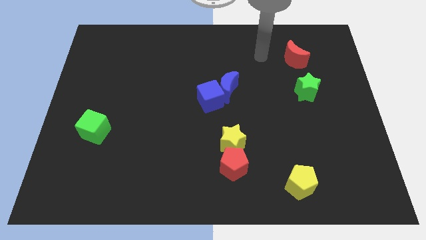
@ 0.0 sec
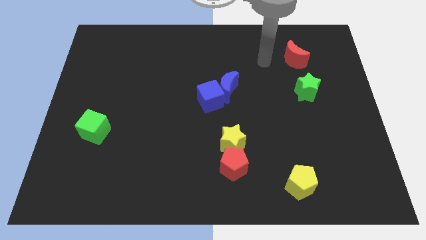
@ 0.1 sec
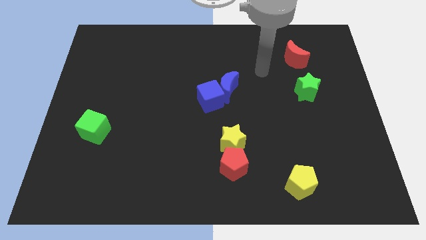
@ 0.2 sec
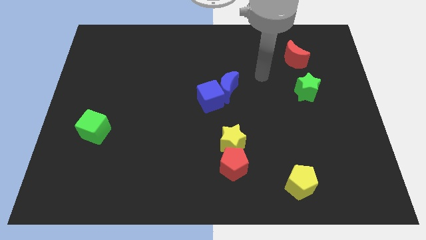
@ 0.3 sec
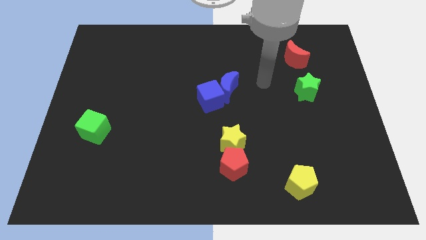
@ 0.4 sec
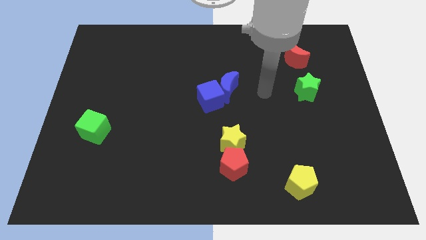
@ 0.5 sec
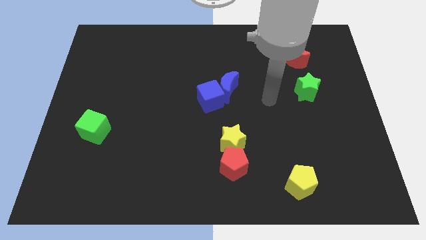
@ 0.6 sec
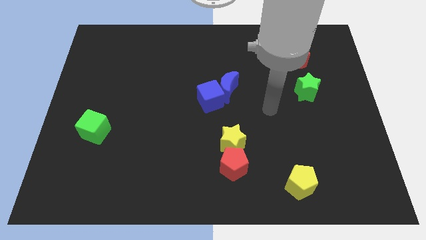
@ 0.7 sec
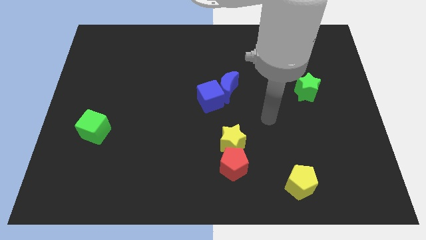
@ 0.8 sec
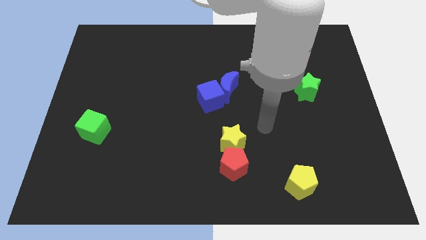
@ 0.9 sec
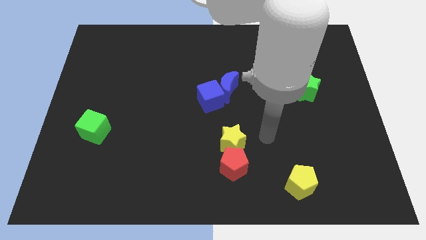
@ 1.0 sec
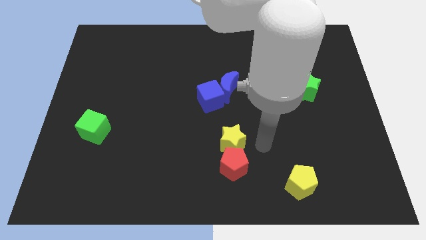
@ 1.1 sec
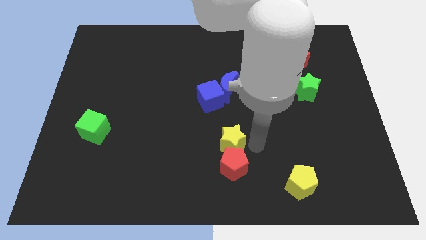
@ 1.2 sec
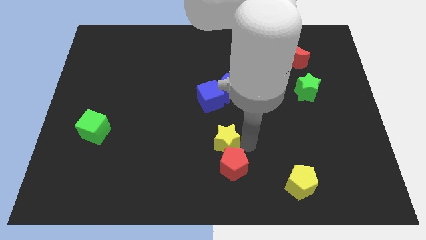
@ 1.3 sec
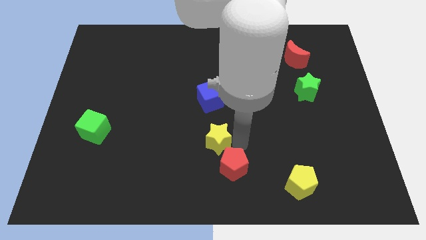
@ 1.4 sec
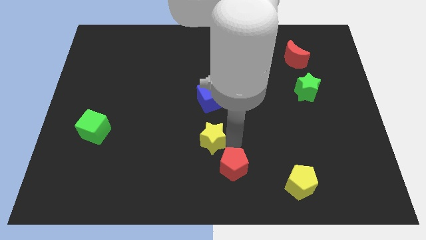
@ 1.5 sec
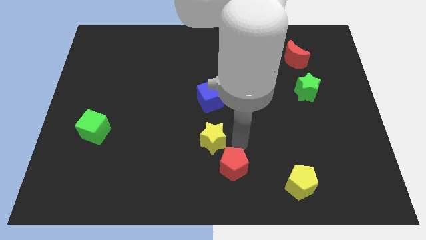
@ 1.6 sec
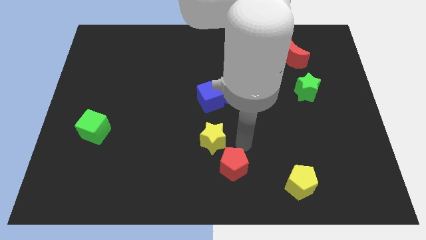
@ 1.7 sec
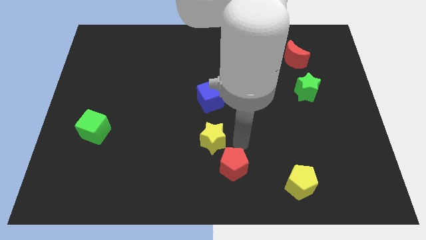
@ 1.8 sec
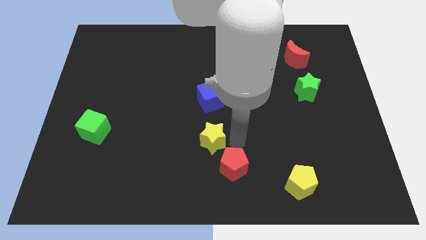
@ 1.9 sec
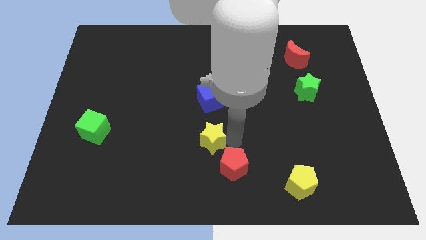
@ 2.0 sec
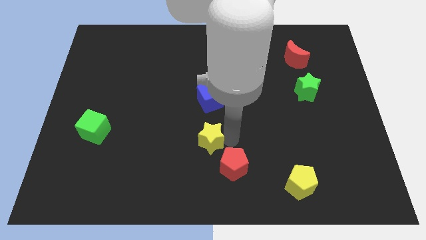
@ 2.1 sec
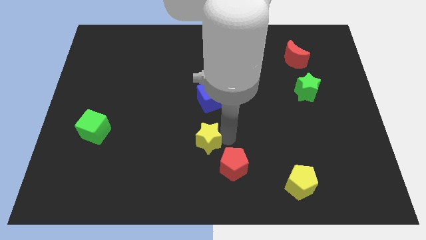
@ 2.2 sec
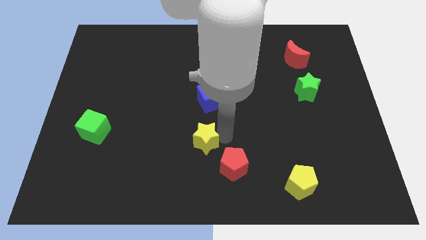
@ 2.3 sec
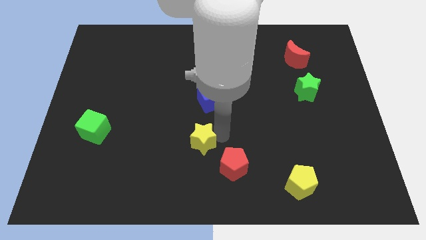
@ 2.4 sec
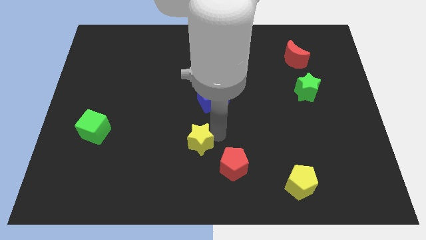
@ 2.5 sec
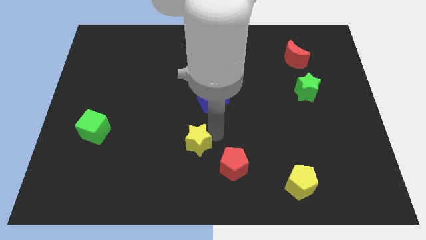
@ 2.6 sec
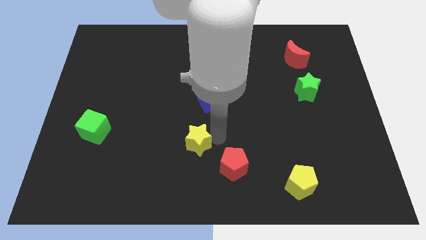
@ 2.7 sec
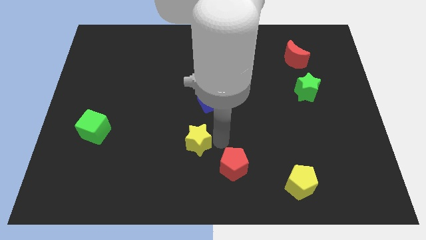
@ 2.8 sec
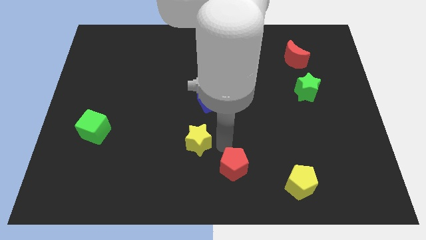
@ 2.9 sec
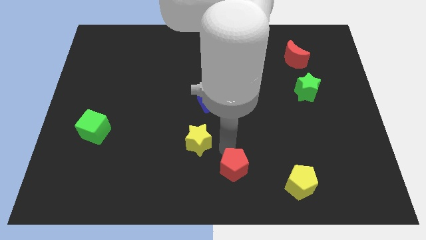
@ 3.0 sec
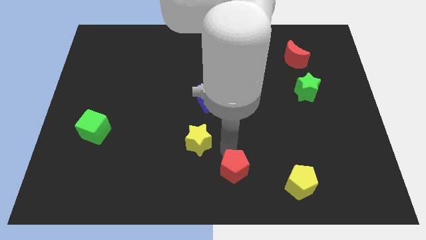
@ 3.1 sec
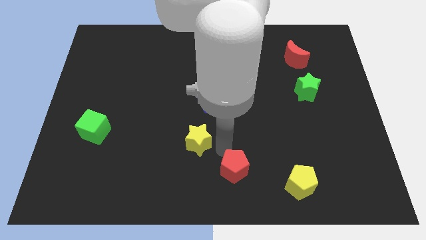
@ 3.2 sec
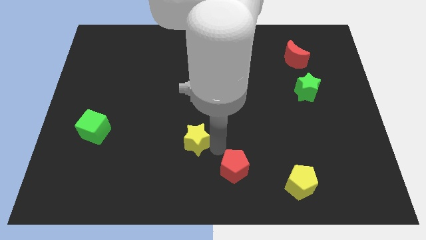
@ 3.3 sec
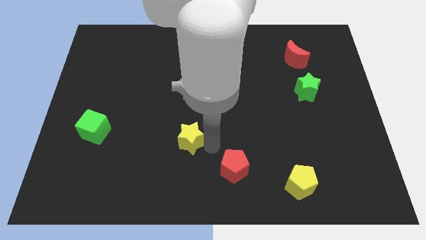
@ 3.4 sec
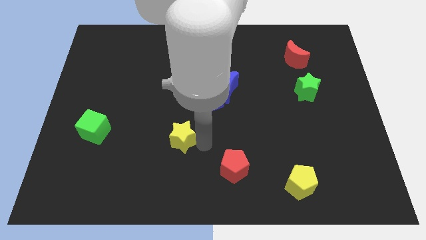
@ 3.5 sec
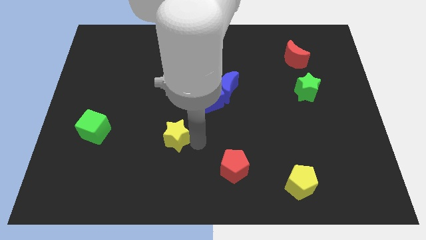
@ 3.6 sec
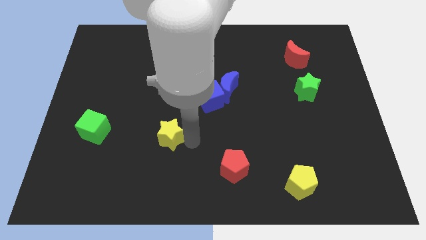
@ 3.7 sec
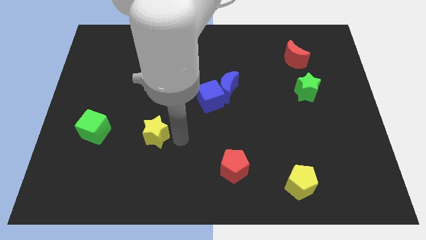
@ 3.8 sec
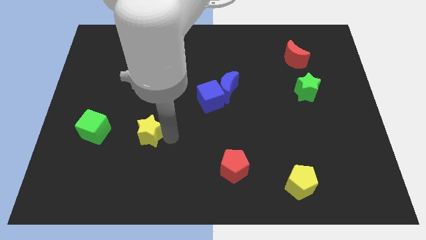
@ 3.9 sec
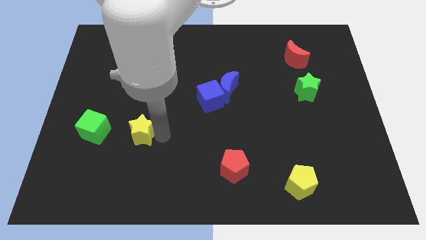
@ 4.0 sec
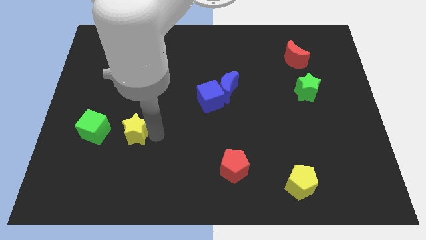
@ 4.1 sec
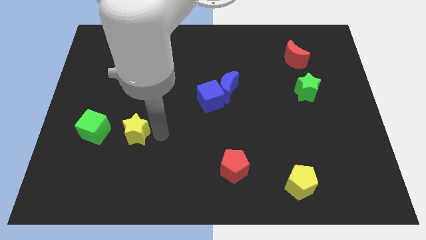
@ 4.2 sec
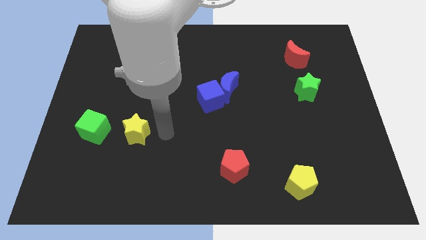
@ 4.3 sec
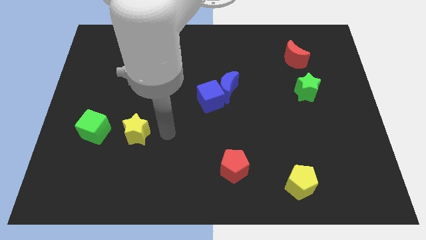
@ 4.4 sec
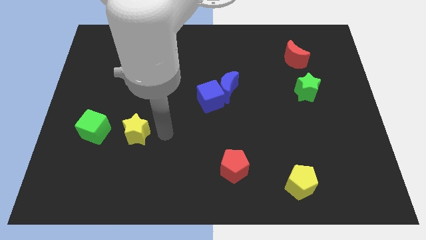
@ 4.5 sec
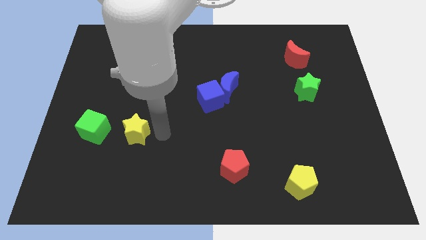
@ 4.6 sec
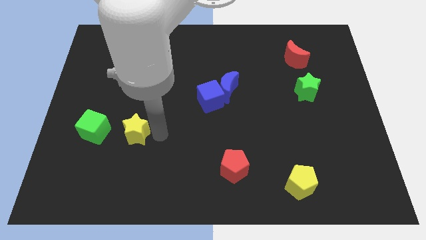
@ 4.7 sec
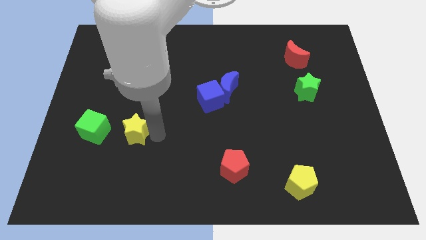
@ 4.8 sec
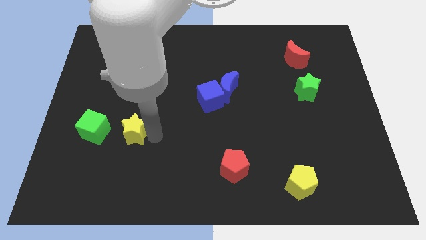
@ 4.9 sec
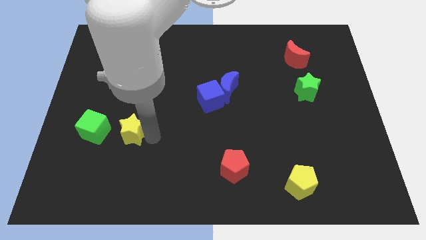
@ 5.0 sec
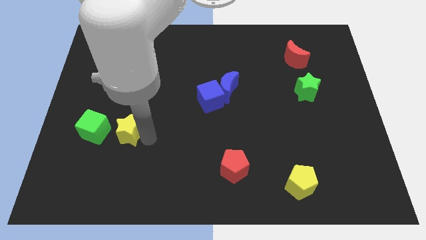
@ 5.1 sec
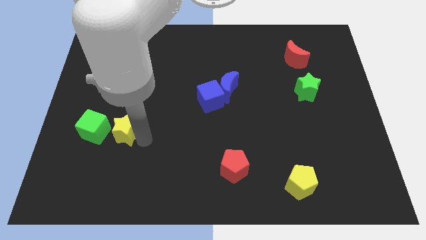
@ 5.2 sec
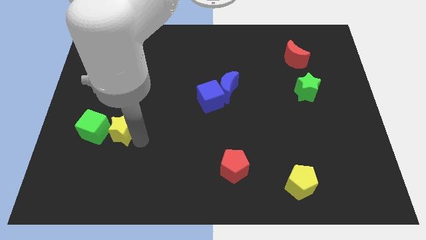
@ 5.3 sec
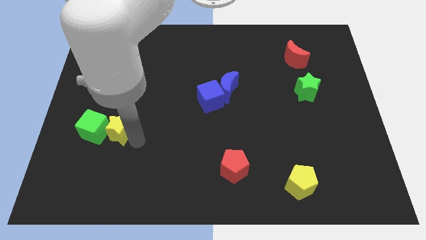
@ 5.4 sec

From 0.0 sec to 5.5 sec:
slide the yellow star towards the green cube

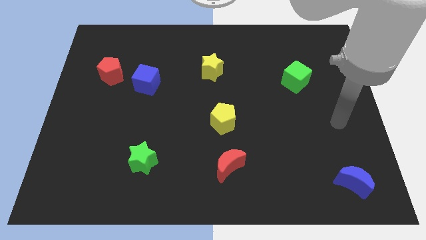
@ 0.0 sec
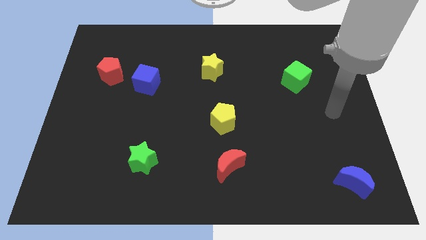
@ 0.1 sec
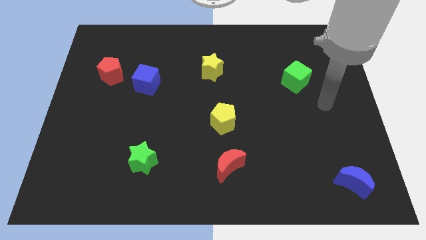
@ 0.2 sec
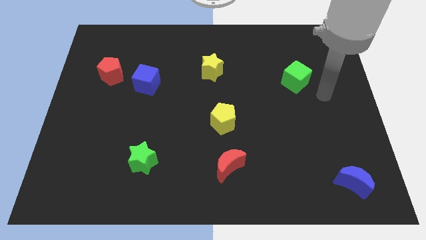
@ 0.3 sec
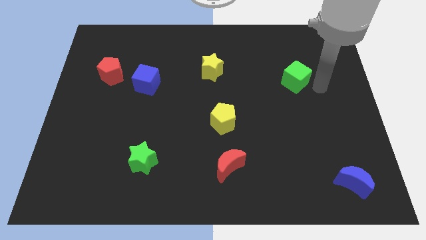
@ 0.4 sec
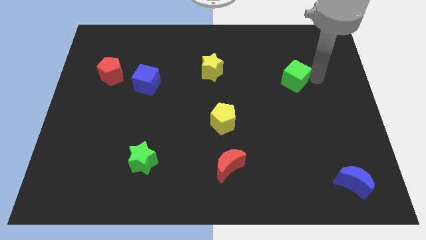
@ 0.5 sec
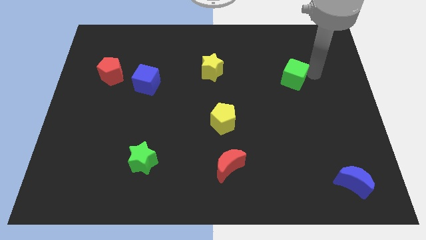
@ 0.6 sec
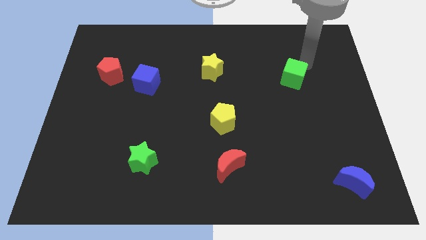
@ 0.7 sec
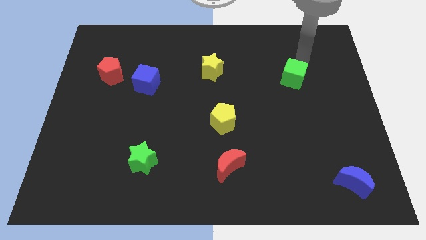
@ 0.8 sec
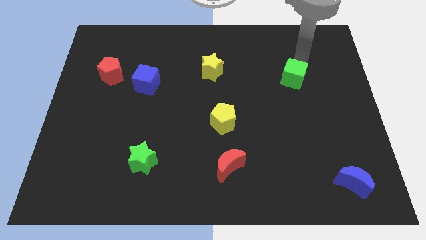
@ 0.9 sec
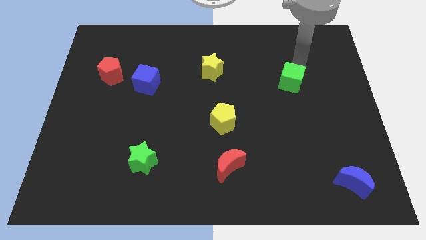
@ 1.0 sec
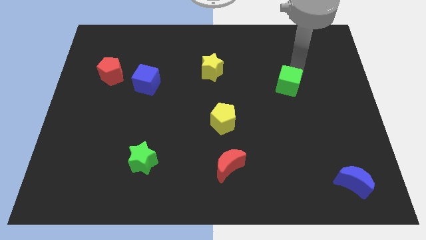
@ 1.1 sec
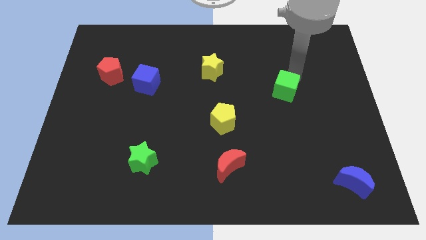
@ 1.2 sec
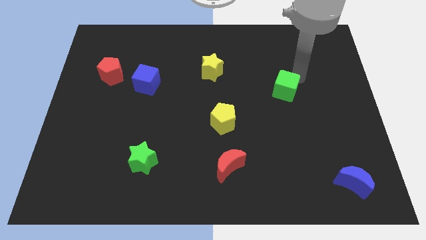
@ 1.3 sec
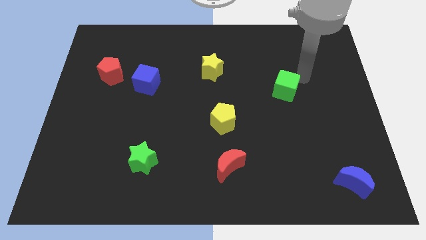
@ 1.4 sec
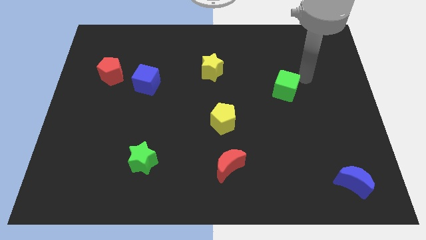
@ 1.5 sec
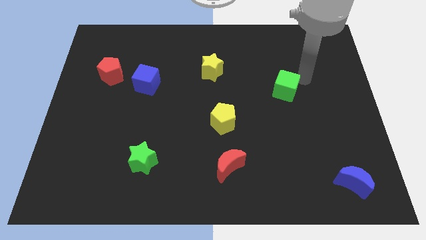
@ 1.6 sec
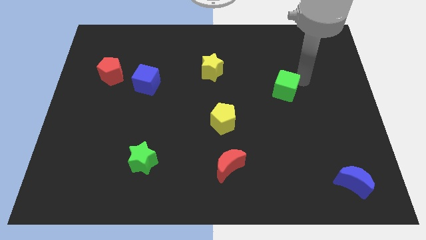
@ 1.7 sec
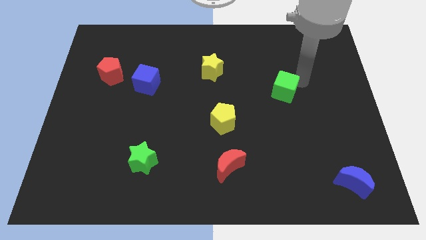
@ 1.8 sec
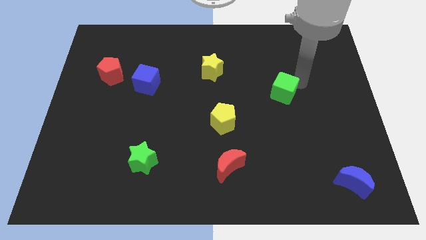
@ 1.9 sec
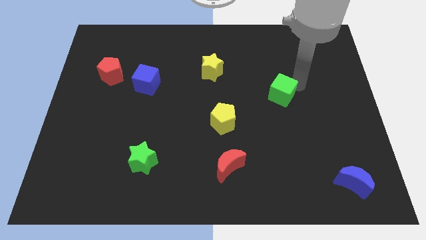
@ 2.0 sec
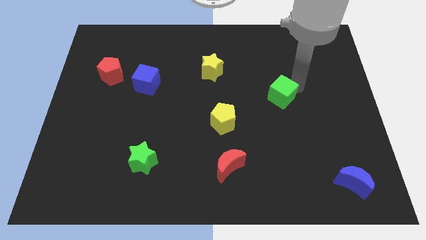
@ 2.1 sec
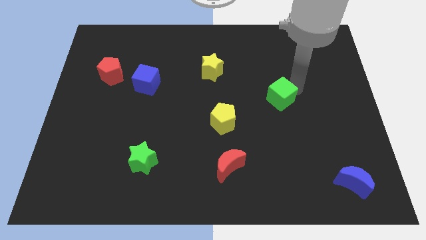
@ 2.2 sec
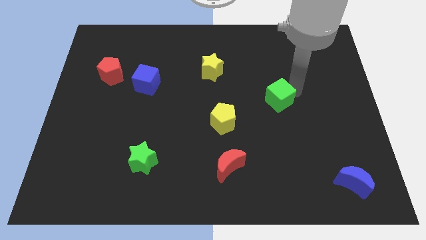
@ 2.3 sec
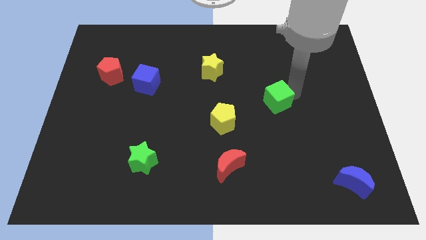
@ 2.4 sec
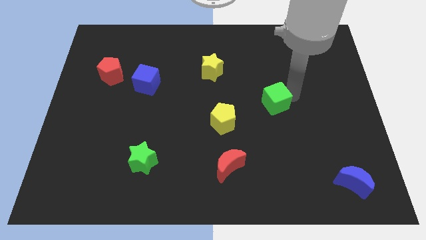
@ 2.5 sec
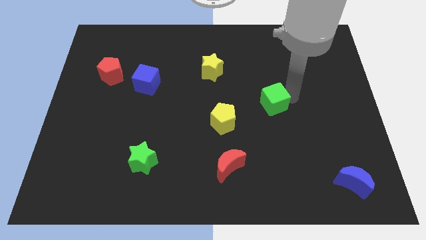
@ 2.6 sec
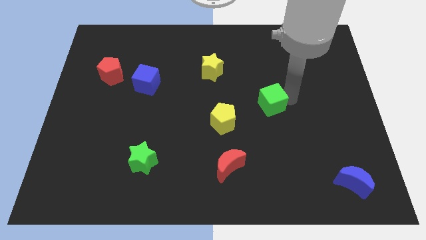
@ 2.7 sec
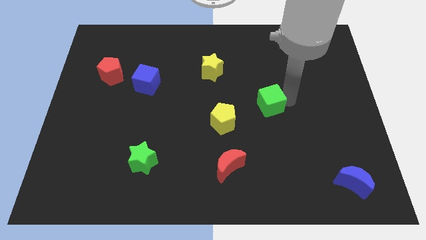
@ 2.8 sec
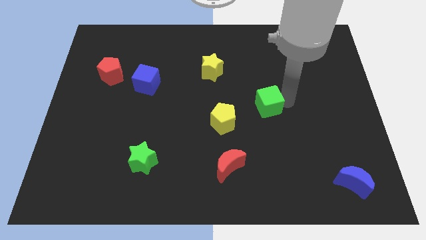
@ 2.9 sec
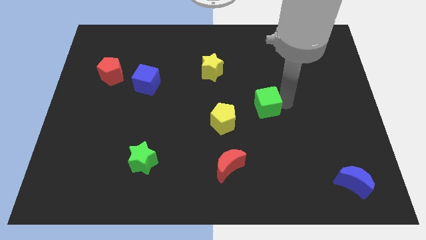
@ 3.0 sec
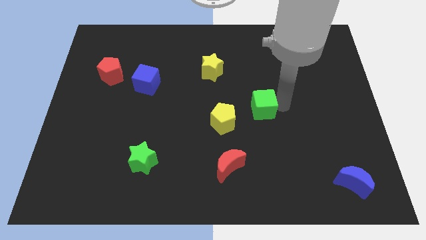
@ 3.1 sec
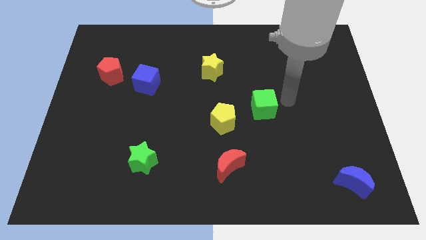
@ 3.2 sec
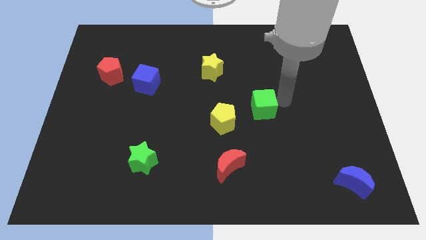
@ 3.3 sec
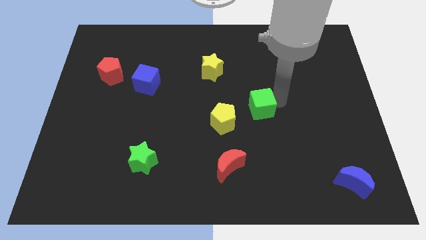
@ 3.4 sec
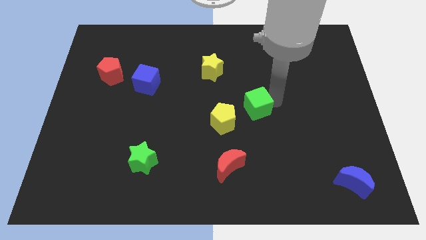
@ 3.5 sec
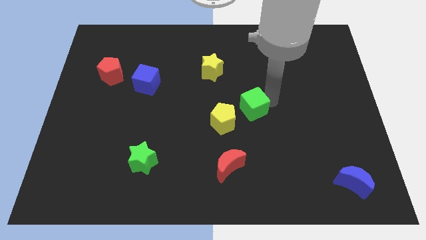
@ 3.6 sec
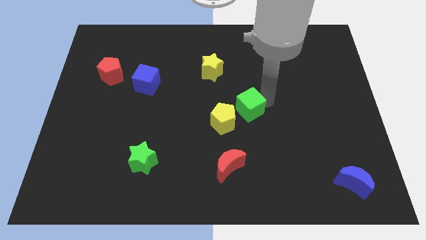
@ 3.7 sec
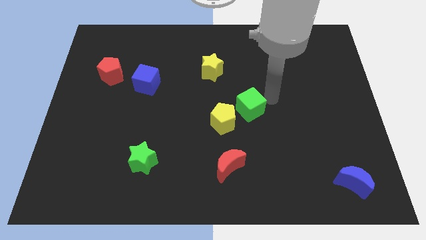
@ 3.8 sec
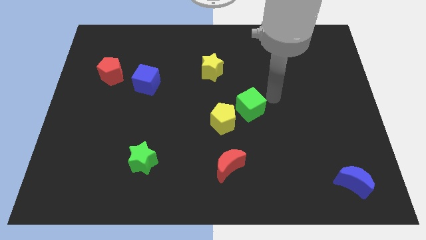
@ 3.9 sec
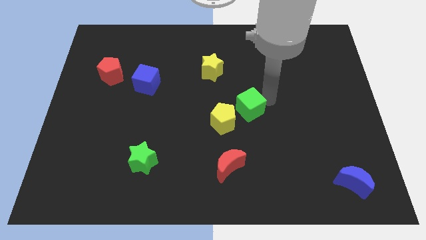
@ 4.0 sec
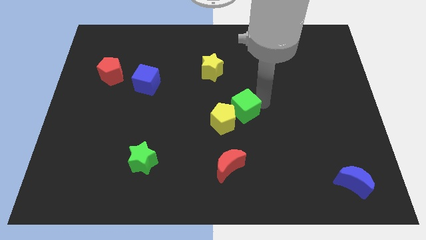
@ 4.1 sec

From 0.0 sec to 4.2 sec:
move the green cube to the yellow pentagon
